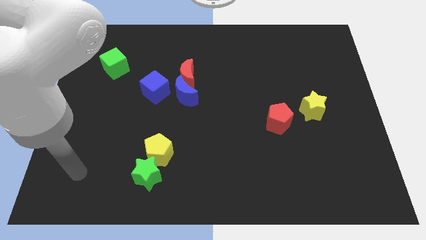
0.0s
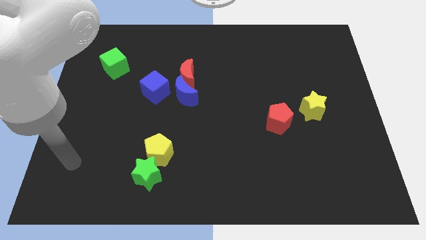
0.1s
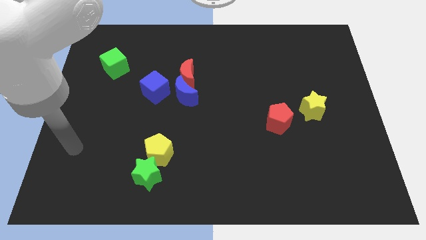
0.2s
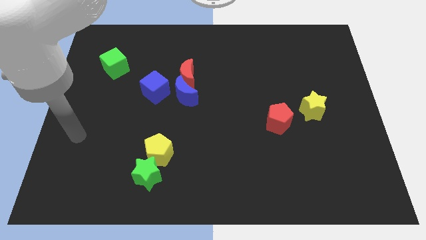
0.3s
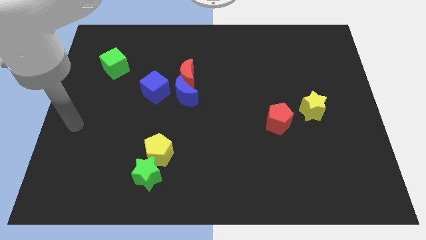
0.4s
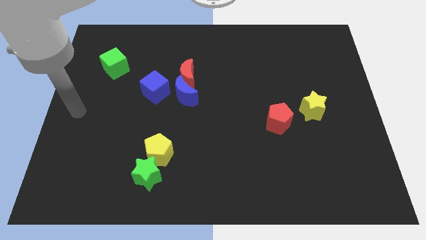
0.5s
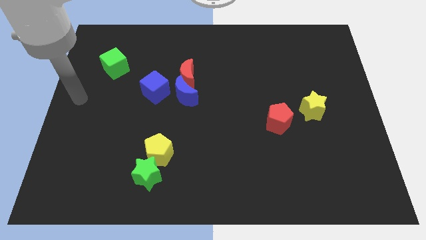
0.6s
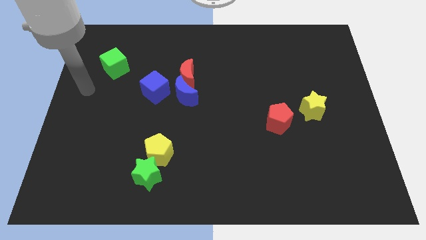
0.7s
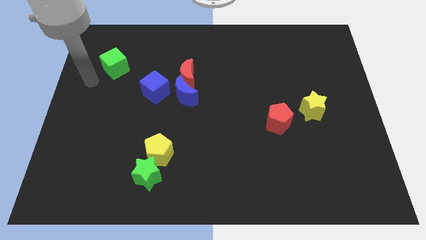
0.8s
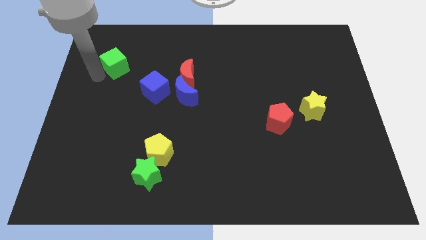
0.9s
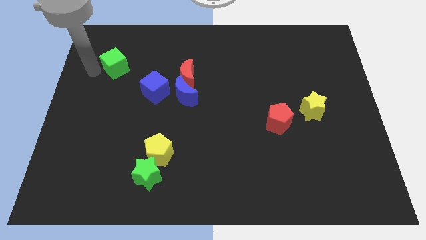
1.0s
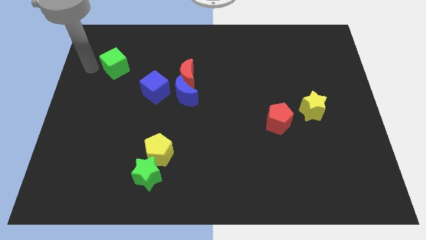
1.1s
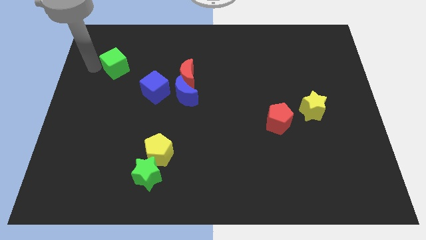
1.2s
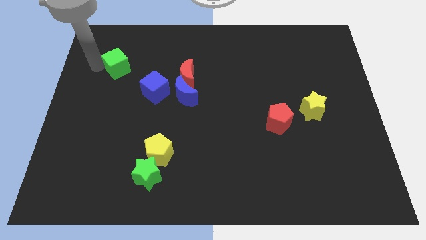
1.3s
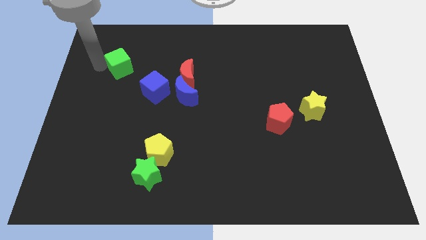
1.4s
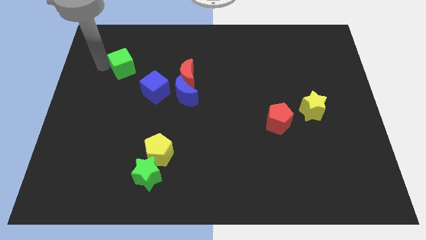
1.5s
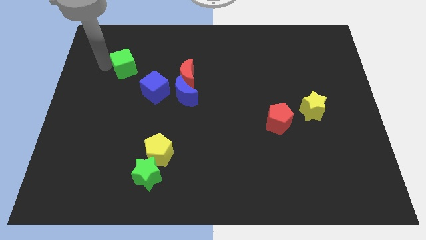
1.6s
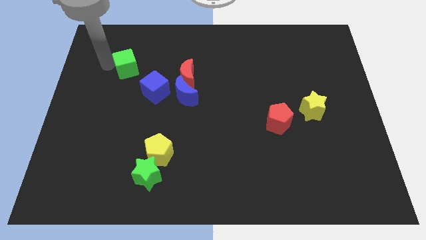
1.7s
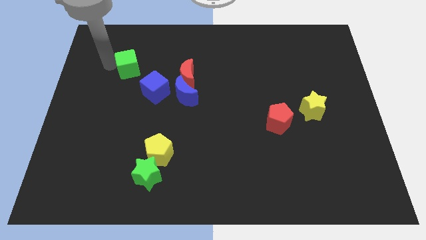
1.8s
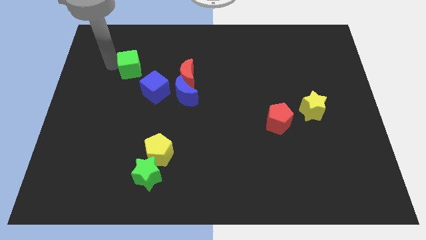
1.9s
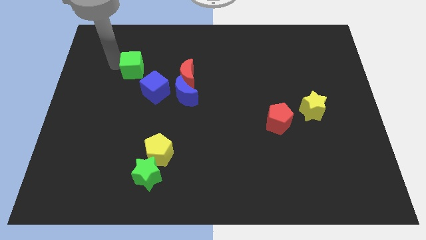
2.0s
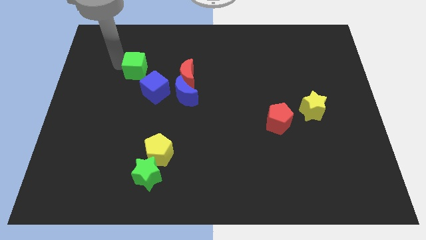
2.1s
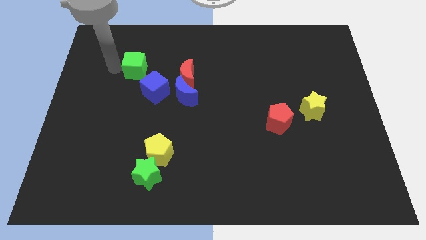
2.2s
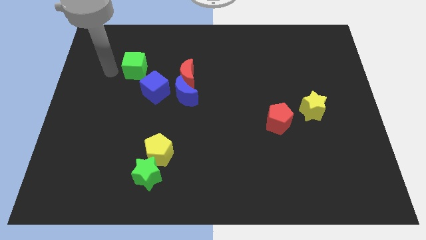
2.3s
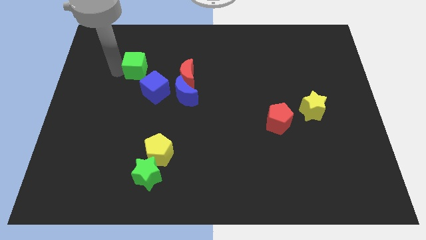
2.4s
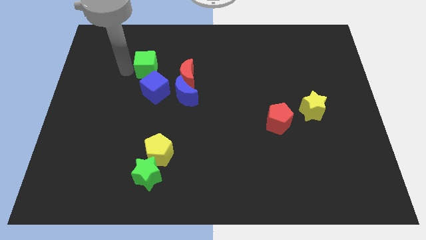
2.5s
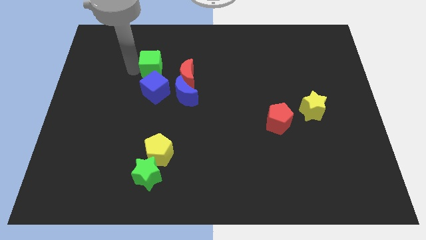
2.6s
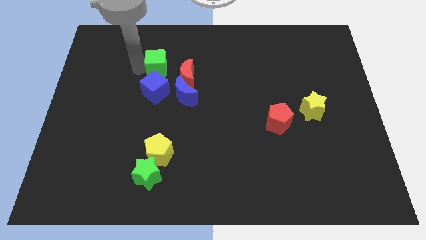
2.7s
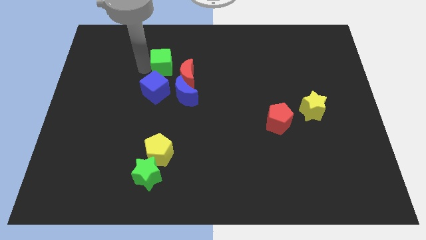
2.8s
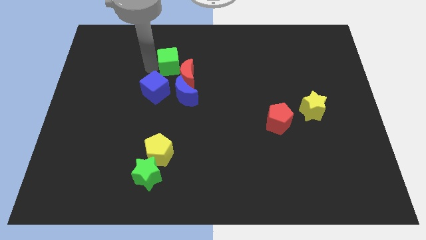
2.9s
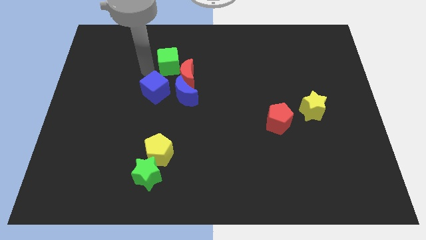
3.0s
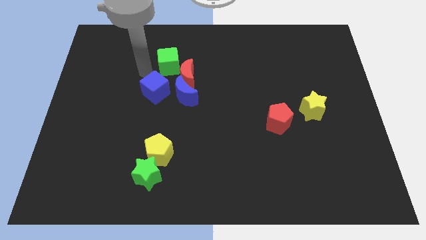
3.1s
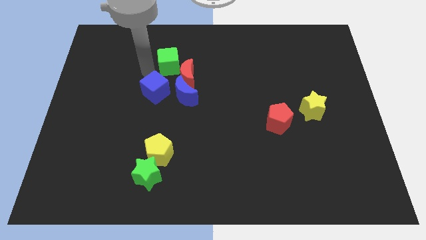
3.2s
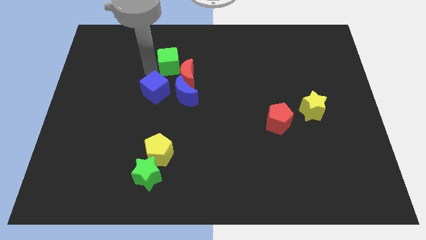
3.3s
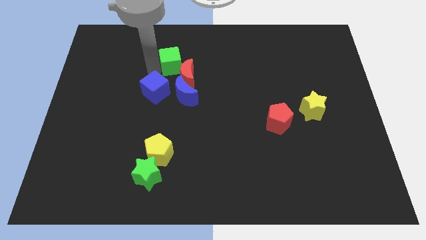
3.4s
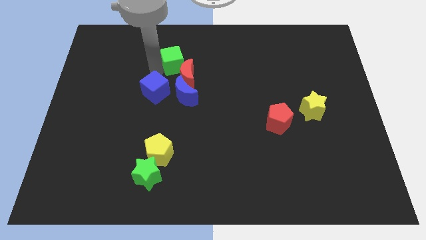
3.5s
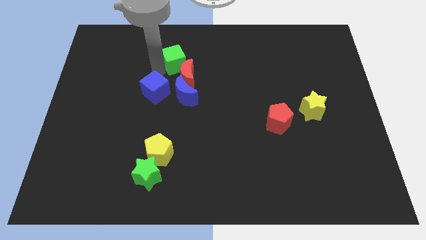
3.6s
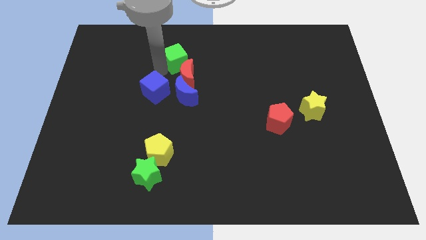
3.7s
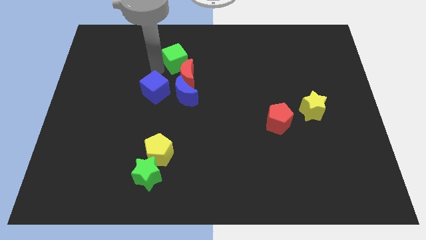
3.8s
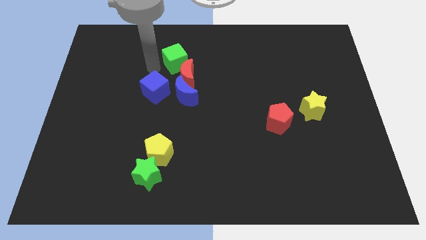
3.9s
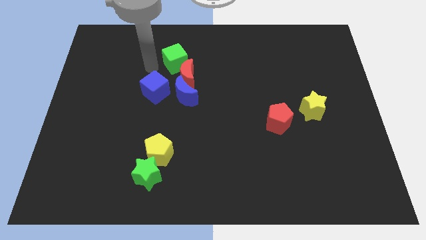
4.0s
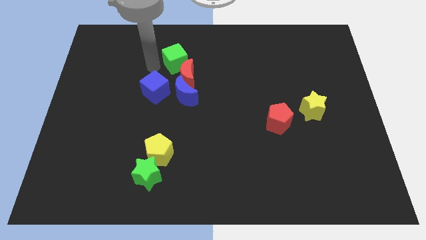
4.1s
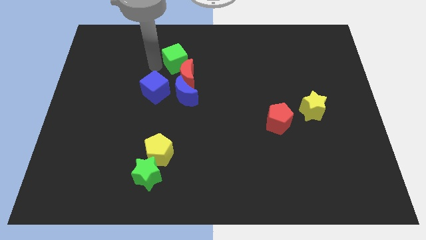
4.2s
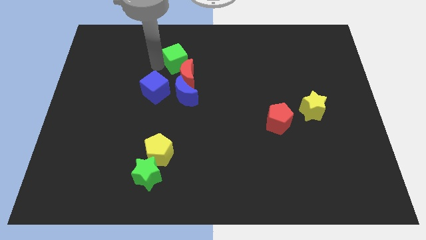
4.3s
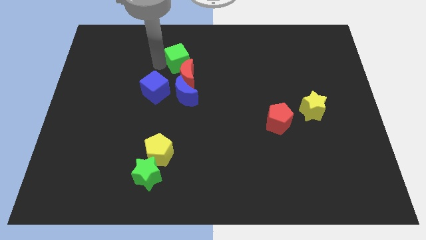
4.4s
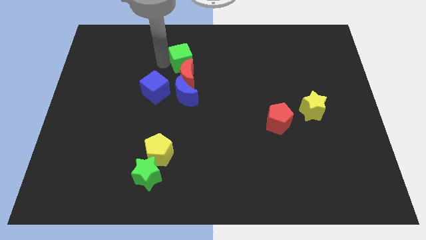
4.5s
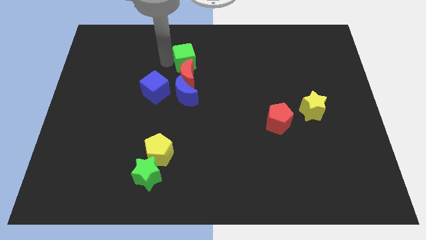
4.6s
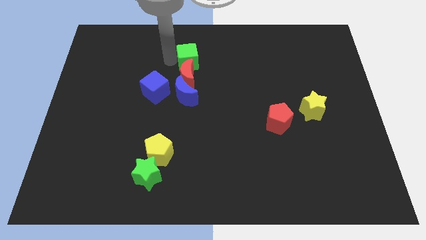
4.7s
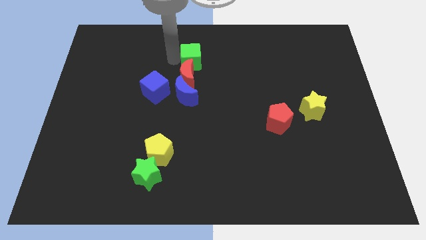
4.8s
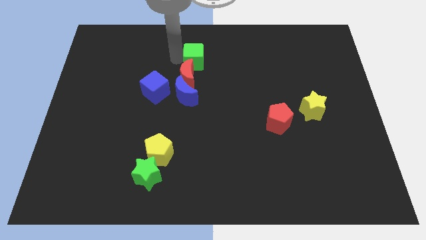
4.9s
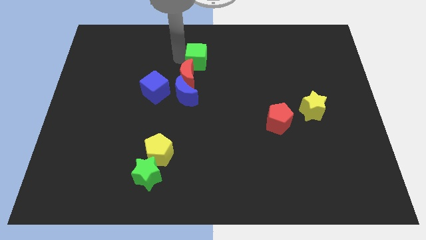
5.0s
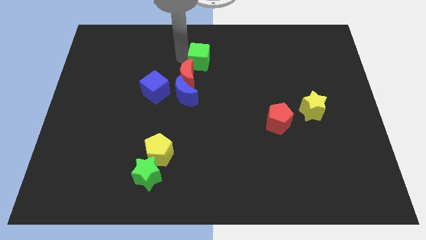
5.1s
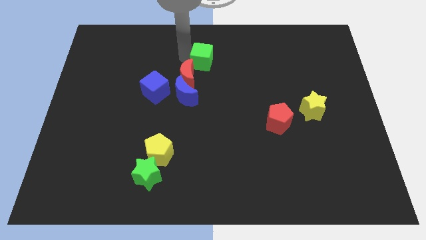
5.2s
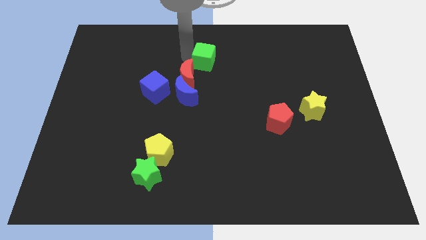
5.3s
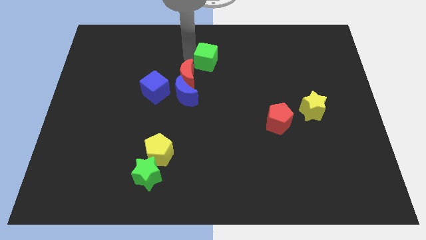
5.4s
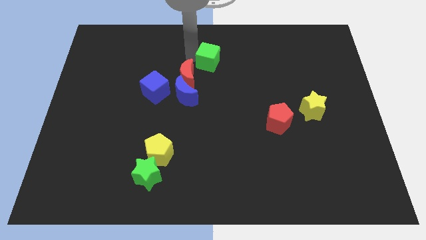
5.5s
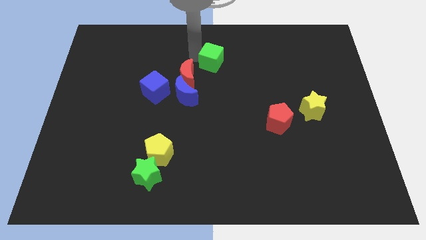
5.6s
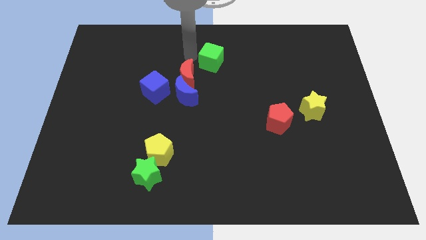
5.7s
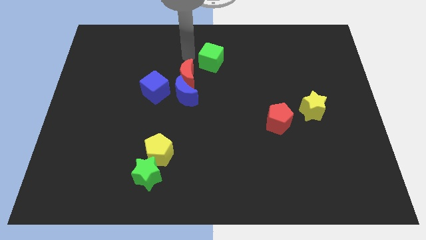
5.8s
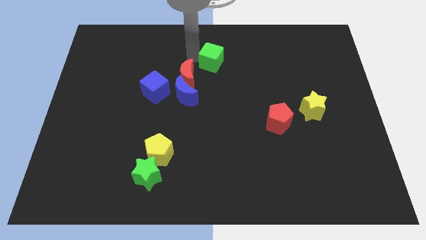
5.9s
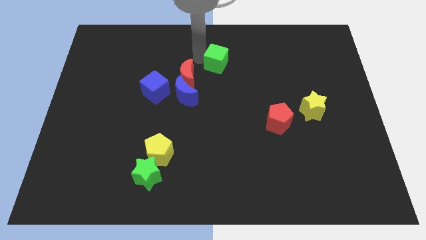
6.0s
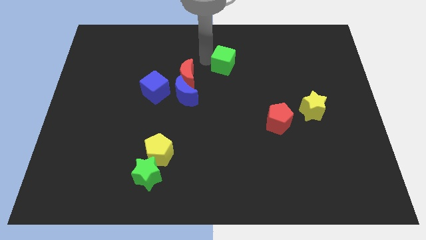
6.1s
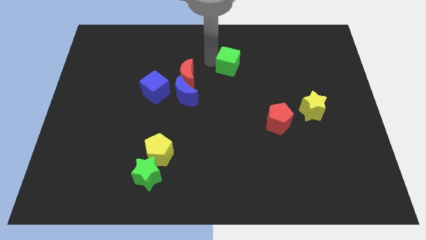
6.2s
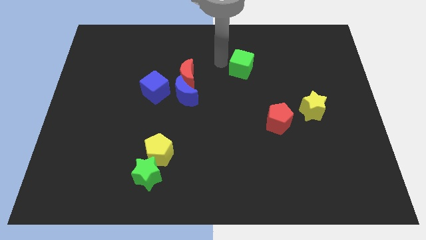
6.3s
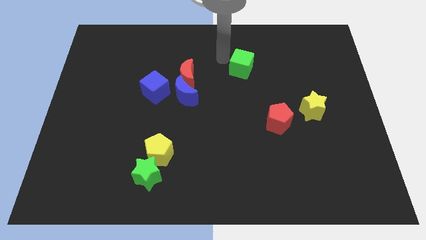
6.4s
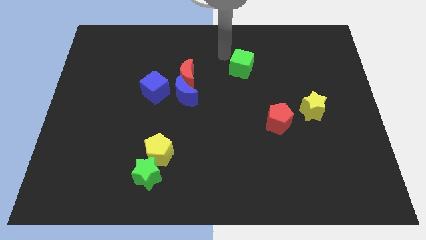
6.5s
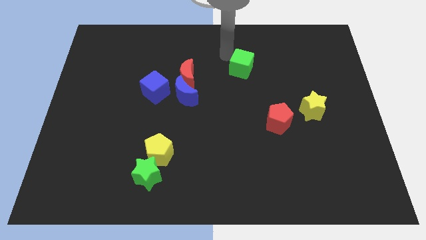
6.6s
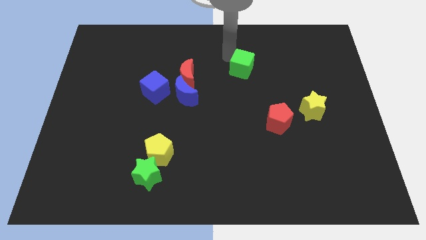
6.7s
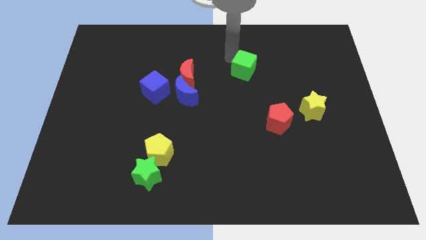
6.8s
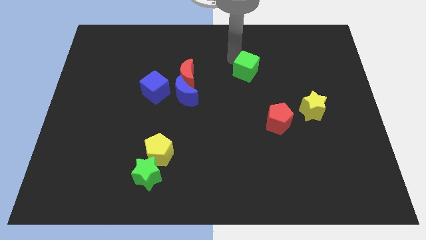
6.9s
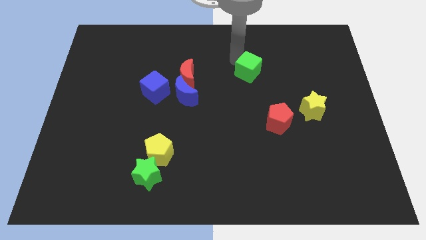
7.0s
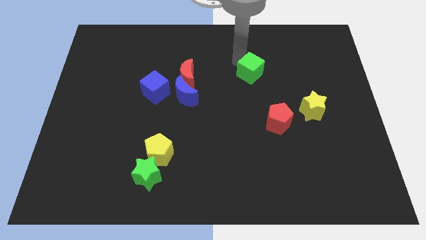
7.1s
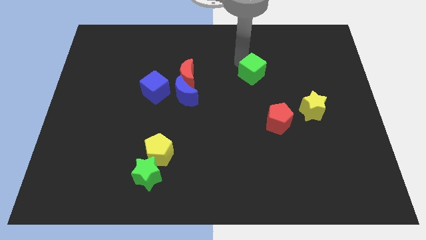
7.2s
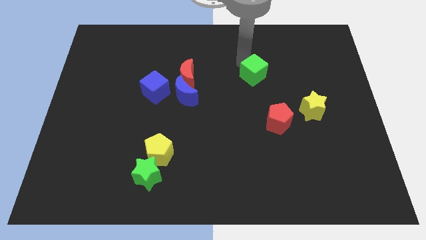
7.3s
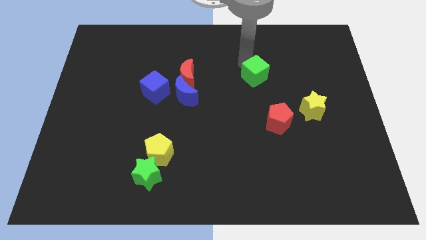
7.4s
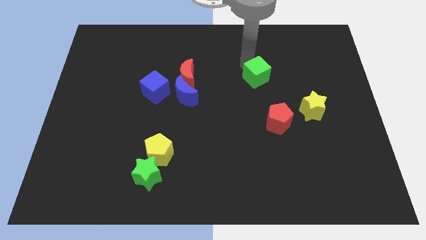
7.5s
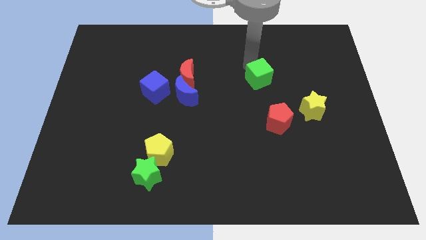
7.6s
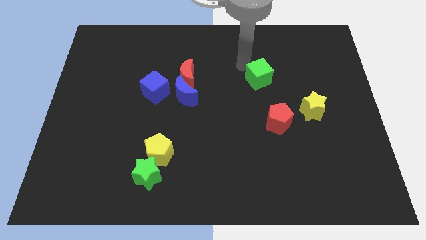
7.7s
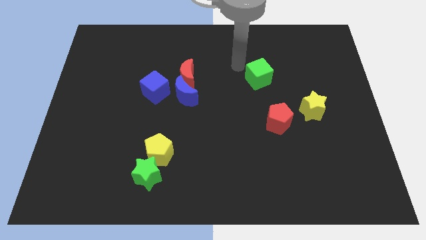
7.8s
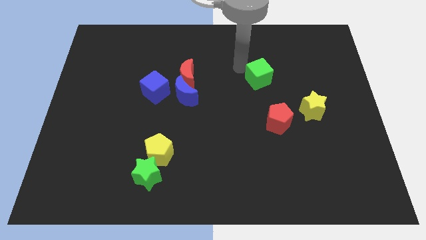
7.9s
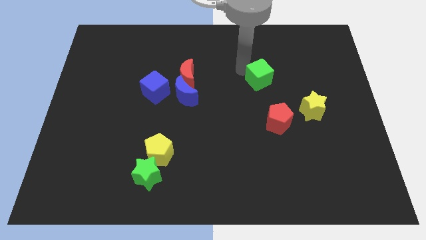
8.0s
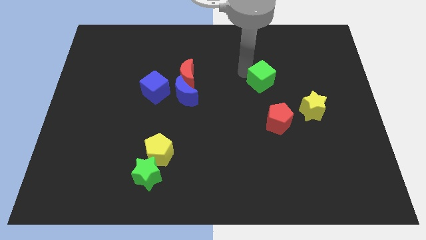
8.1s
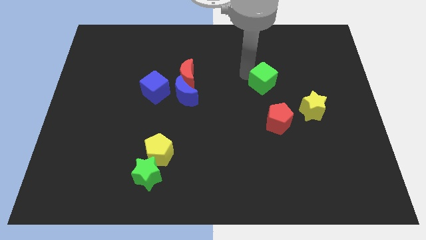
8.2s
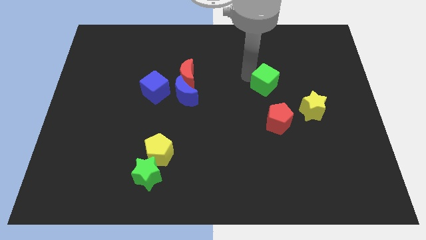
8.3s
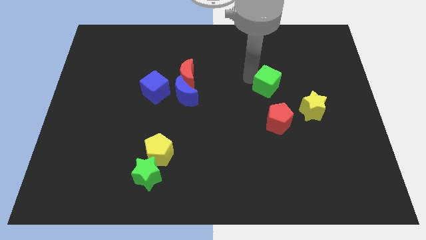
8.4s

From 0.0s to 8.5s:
slide the green cube to the top left of the yellow star
